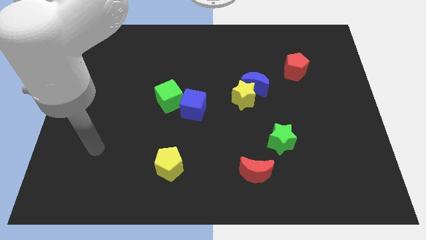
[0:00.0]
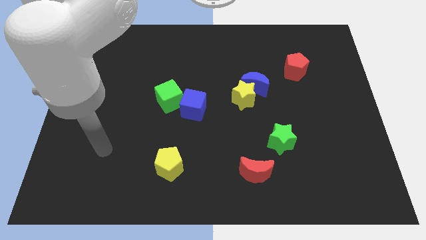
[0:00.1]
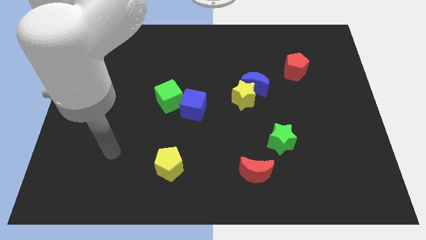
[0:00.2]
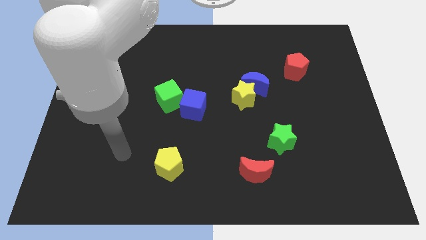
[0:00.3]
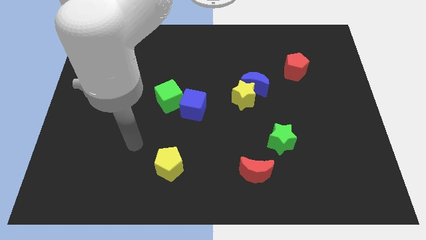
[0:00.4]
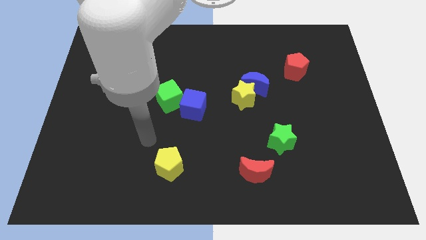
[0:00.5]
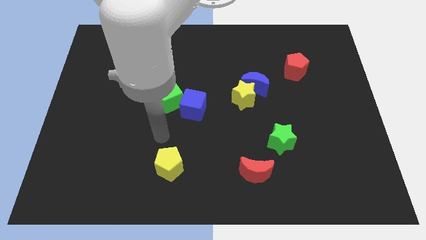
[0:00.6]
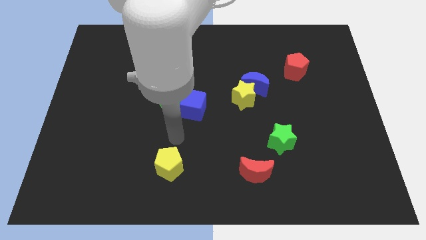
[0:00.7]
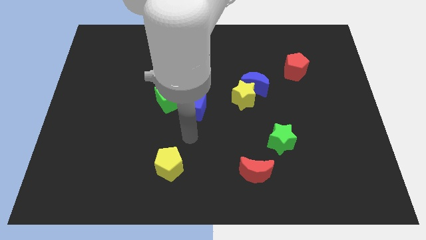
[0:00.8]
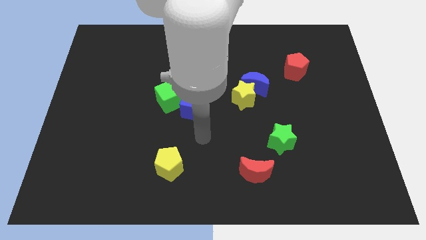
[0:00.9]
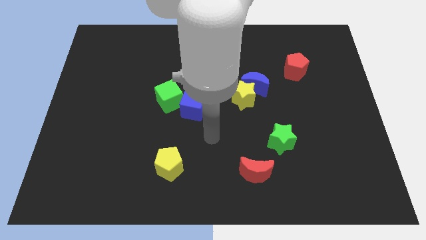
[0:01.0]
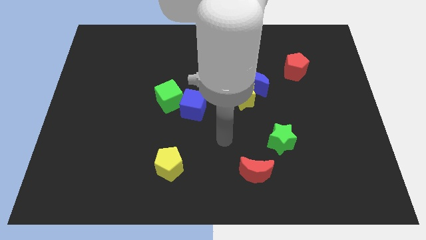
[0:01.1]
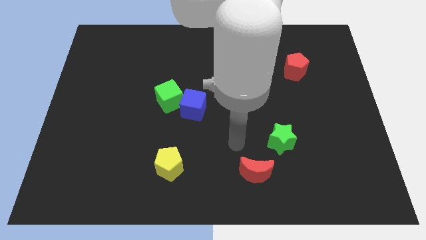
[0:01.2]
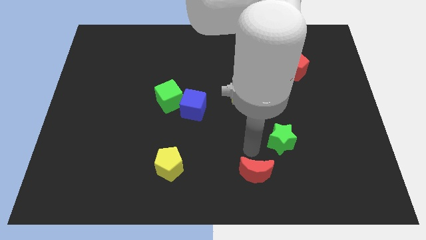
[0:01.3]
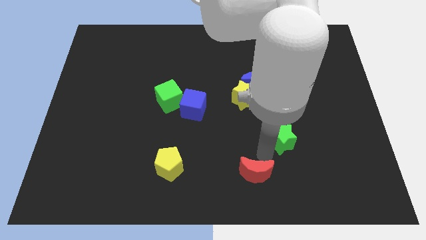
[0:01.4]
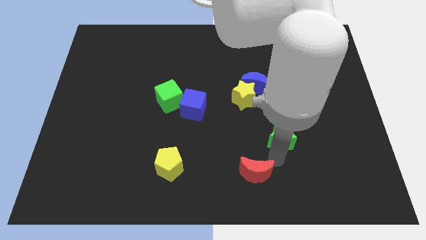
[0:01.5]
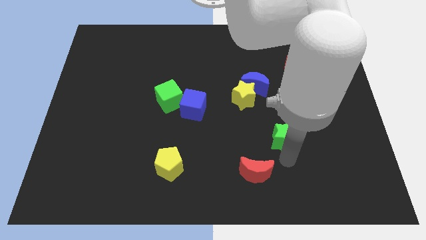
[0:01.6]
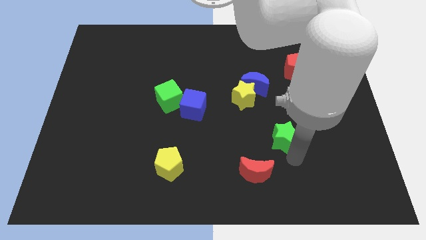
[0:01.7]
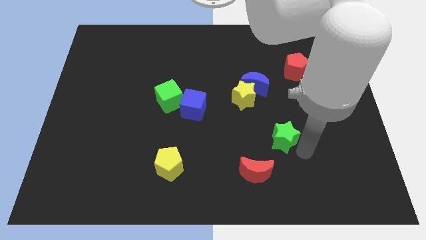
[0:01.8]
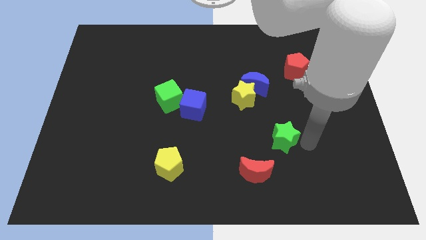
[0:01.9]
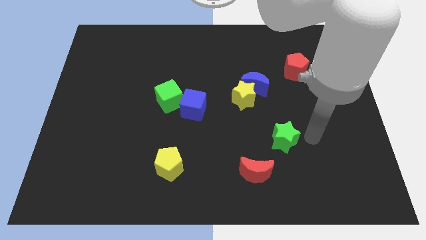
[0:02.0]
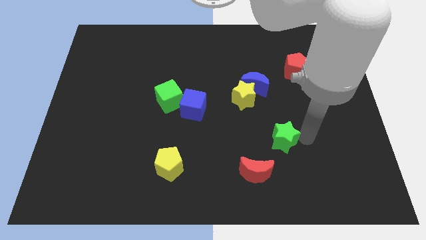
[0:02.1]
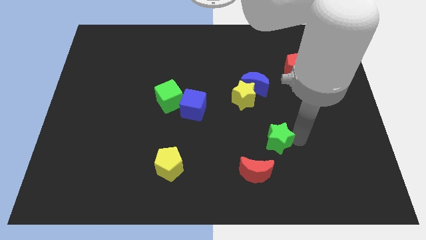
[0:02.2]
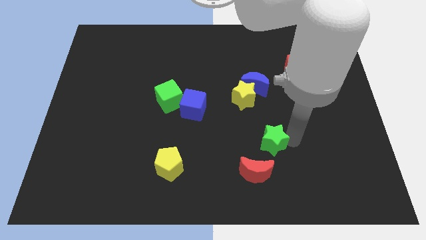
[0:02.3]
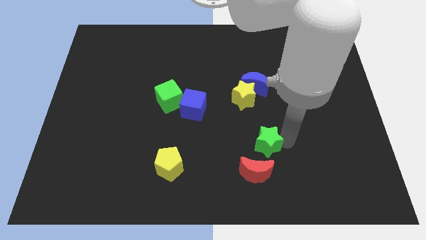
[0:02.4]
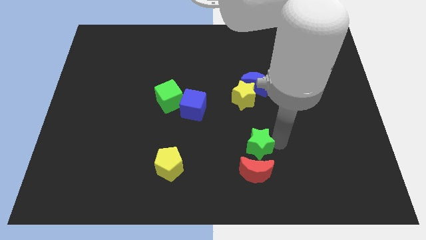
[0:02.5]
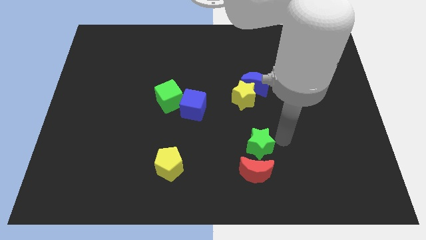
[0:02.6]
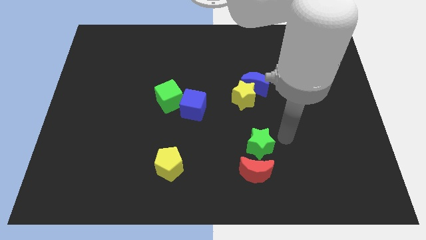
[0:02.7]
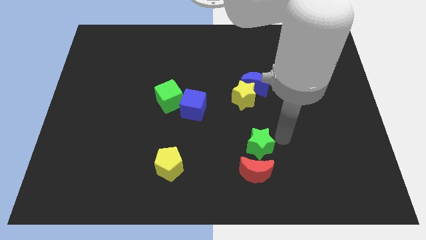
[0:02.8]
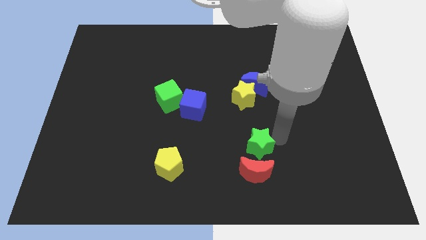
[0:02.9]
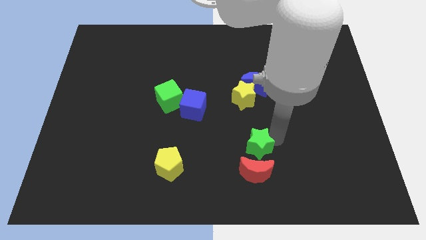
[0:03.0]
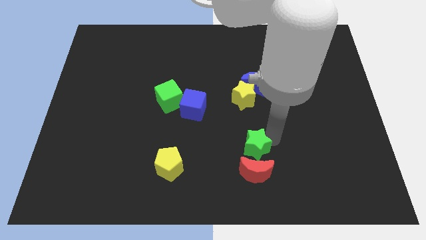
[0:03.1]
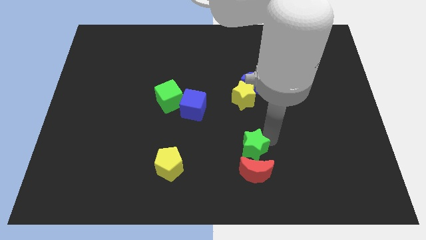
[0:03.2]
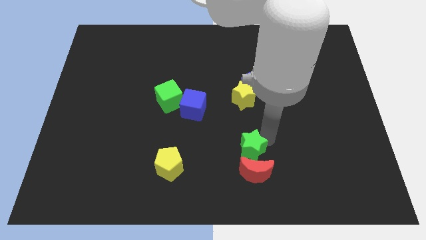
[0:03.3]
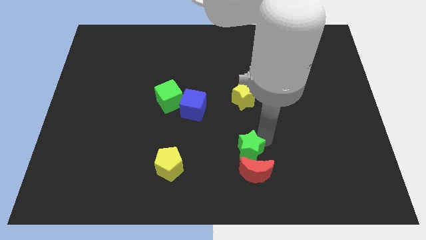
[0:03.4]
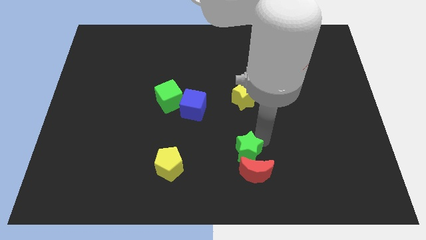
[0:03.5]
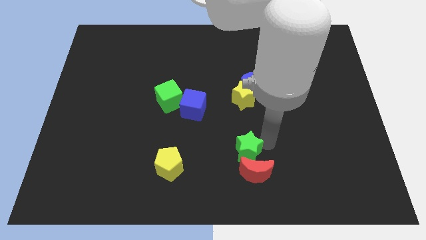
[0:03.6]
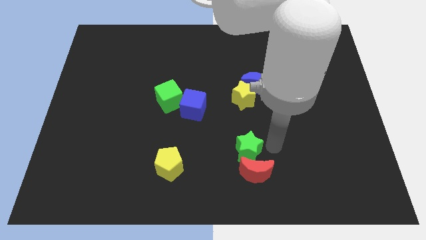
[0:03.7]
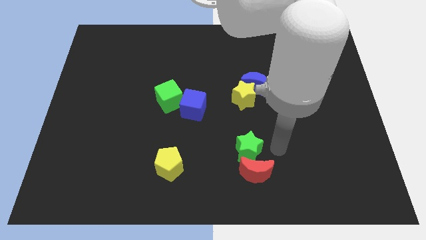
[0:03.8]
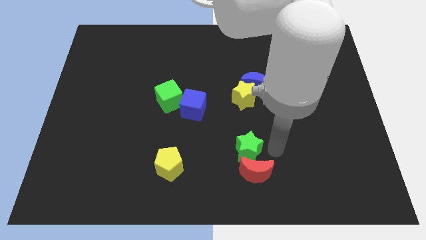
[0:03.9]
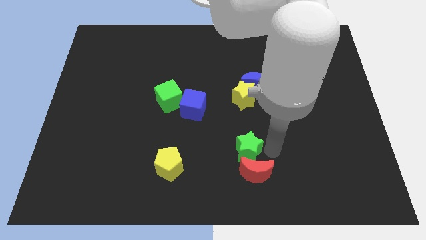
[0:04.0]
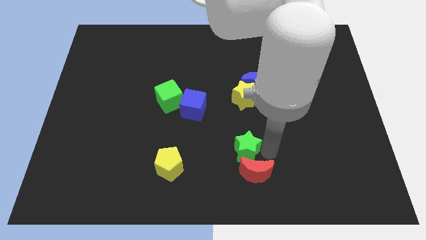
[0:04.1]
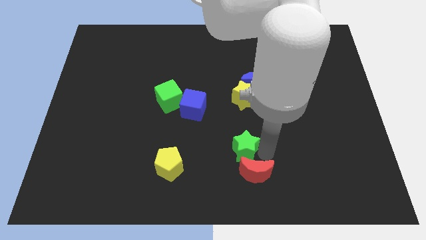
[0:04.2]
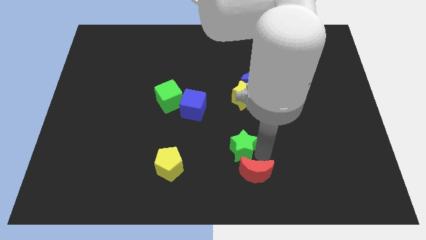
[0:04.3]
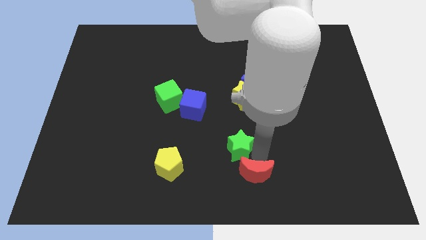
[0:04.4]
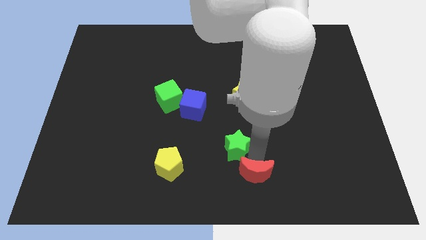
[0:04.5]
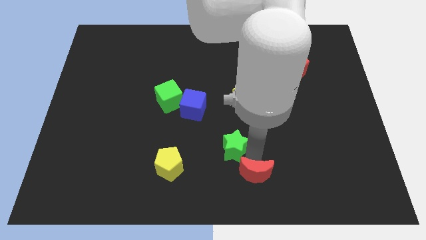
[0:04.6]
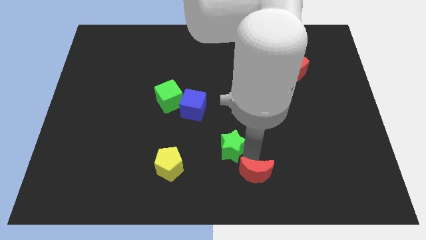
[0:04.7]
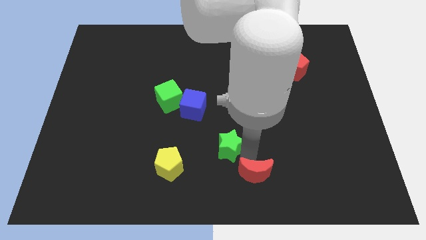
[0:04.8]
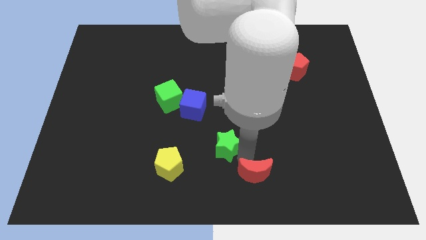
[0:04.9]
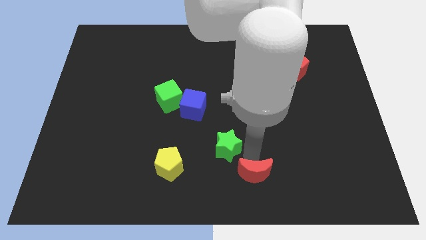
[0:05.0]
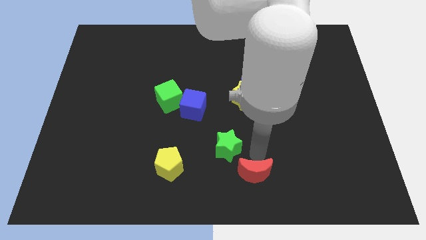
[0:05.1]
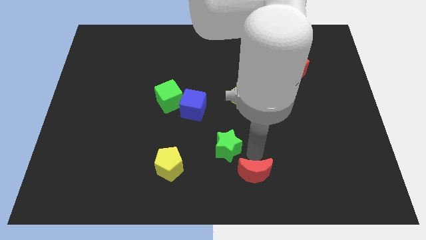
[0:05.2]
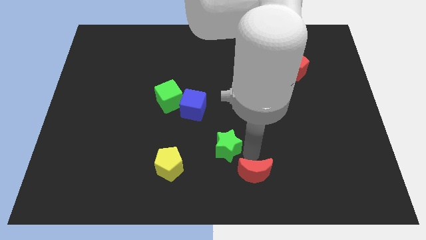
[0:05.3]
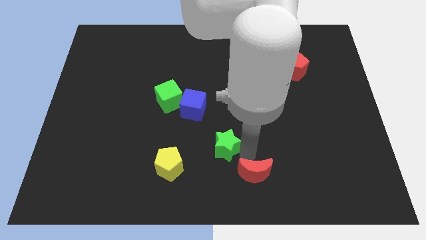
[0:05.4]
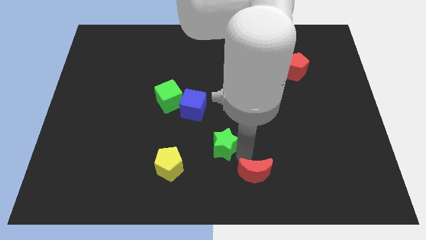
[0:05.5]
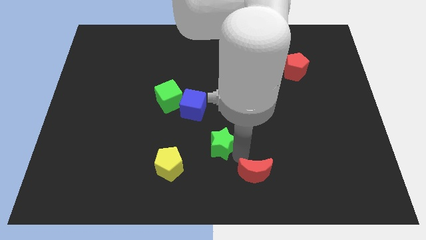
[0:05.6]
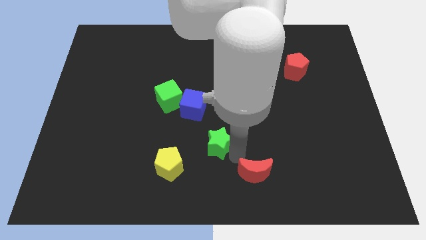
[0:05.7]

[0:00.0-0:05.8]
slide the green star diagonally up and to the right of the yellow pentagon

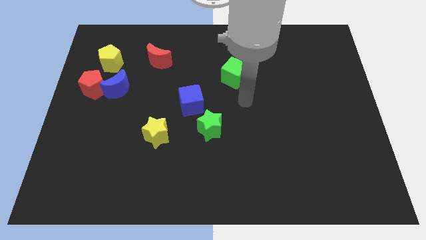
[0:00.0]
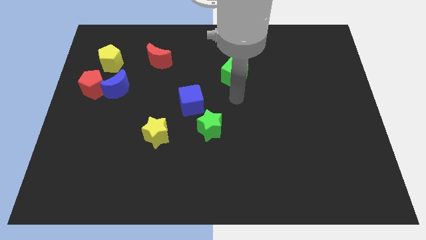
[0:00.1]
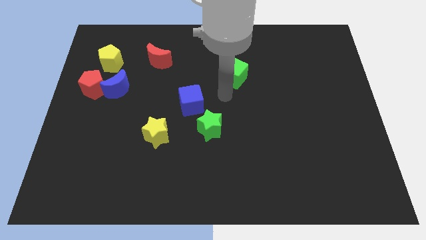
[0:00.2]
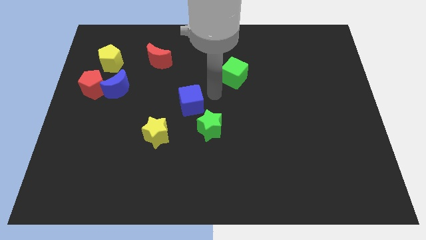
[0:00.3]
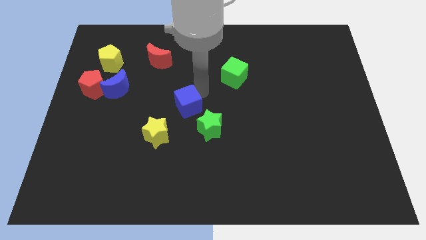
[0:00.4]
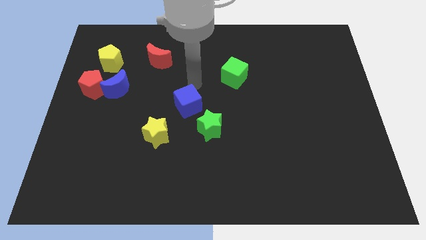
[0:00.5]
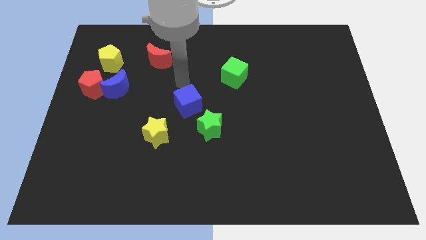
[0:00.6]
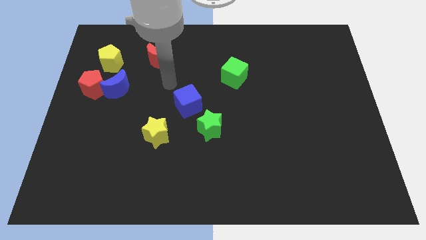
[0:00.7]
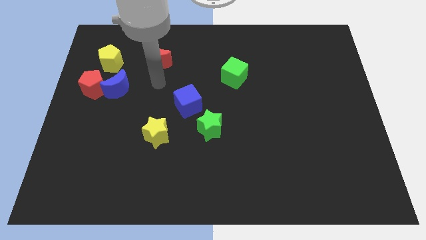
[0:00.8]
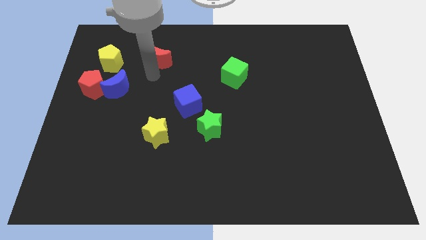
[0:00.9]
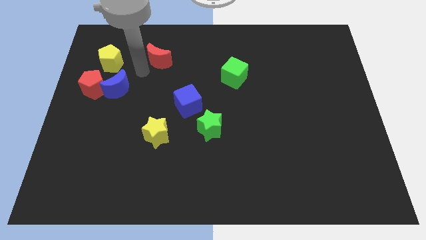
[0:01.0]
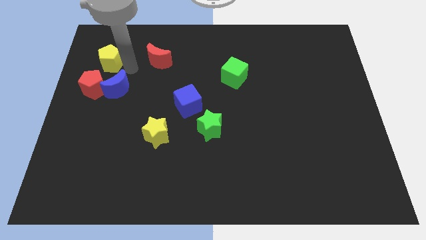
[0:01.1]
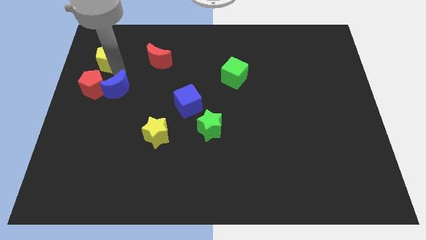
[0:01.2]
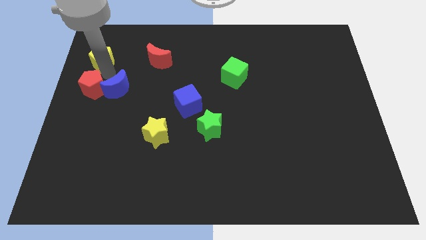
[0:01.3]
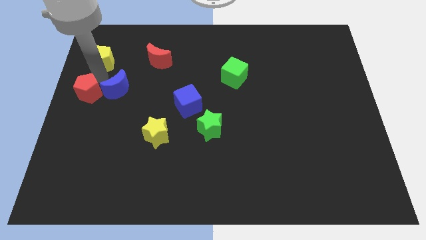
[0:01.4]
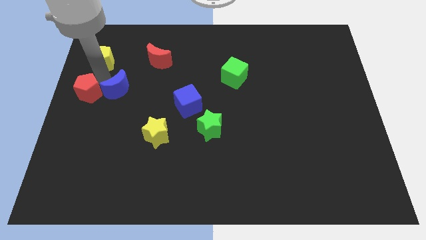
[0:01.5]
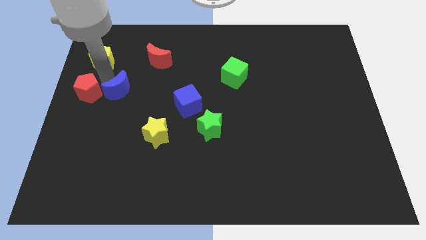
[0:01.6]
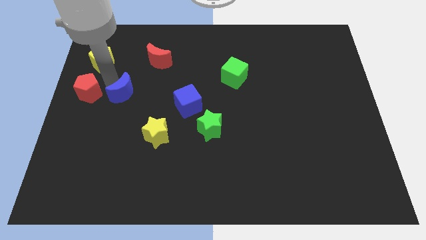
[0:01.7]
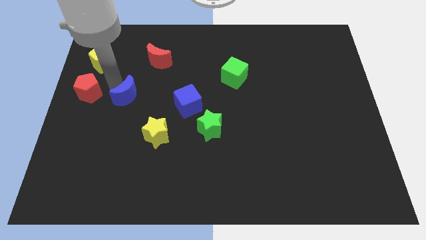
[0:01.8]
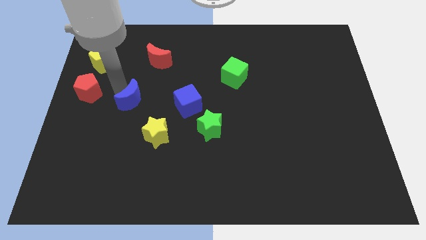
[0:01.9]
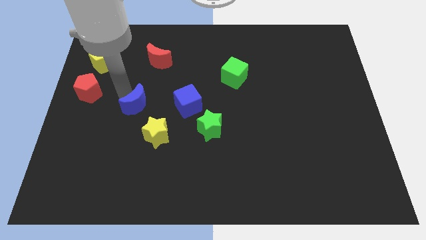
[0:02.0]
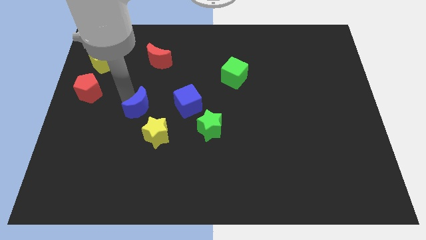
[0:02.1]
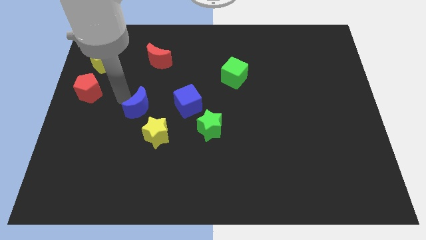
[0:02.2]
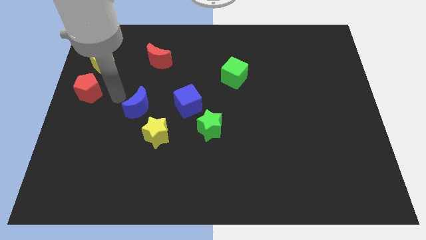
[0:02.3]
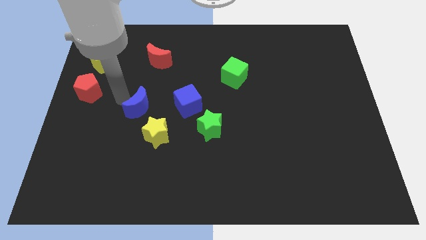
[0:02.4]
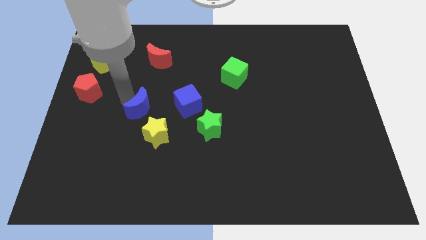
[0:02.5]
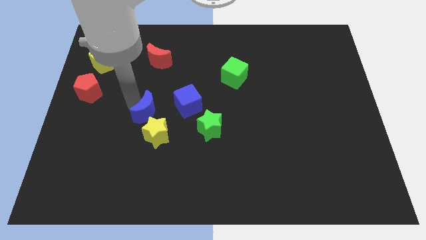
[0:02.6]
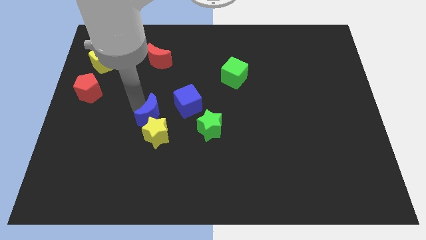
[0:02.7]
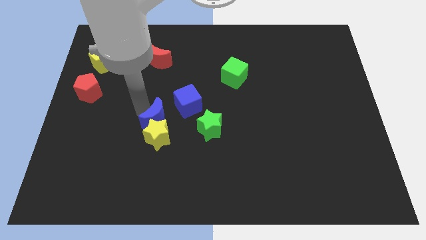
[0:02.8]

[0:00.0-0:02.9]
move the blue moon to the top right of the yellow star
